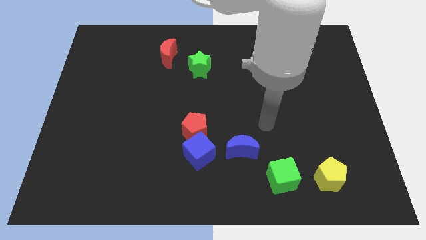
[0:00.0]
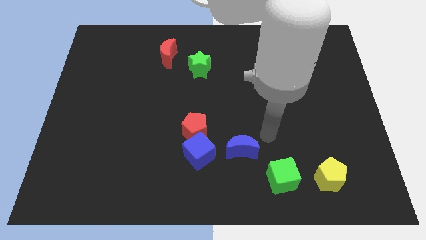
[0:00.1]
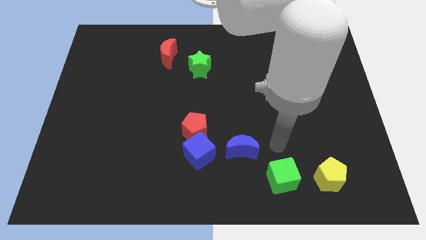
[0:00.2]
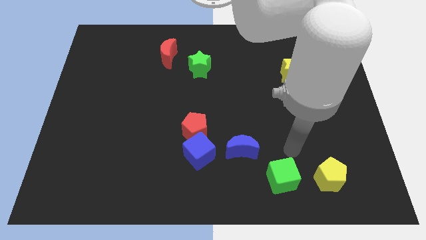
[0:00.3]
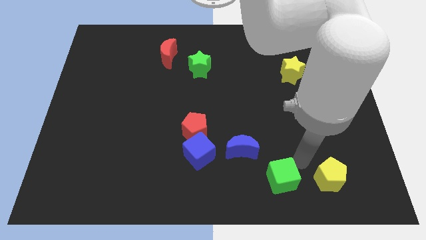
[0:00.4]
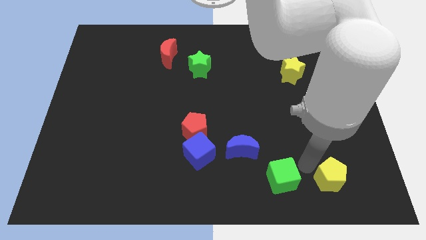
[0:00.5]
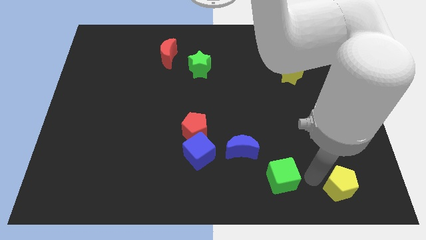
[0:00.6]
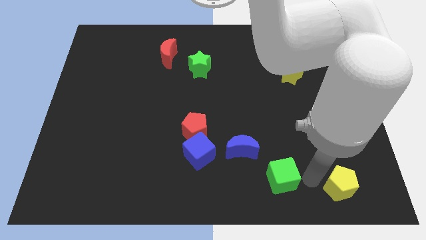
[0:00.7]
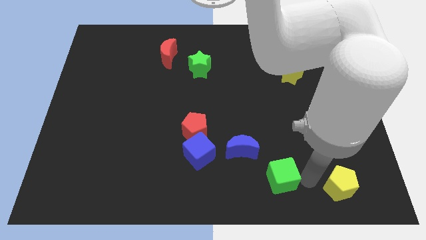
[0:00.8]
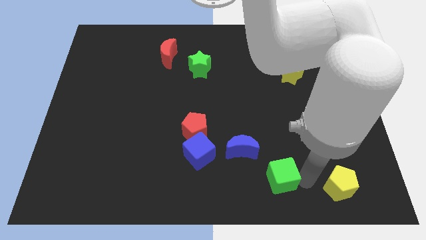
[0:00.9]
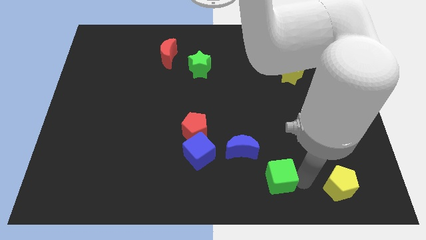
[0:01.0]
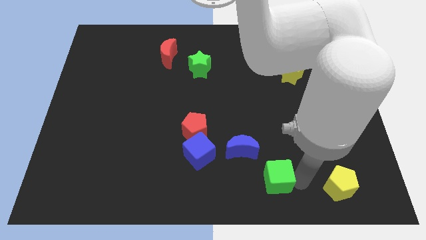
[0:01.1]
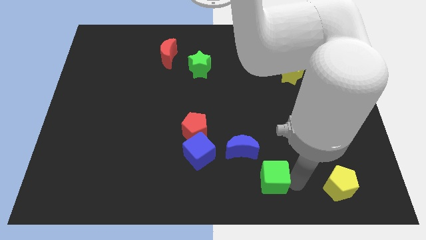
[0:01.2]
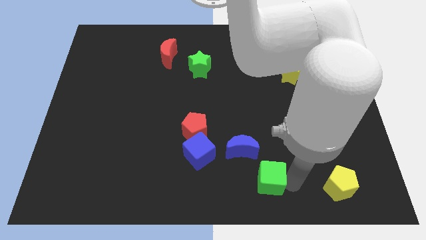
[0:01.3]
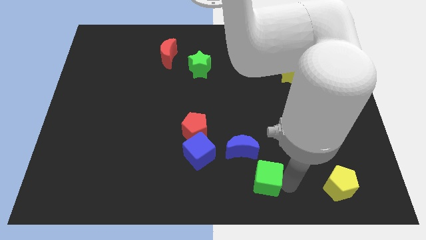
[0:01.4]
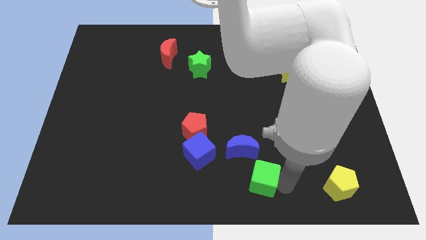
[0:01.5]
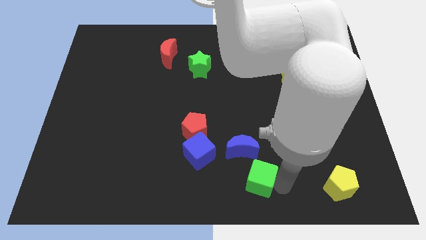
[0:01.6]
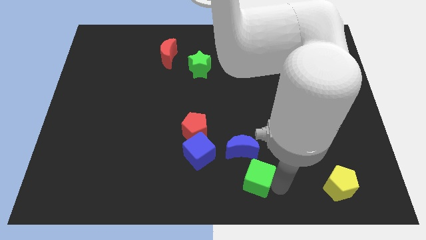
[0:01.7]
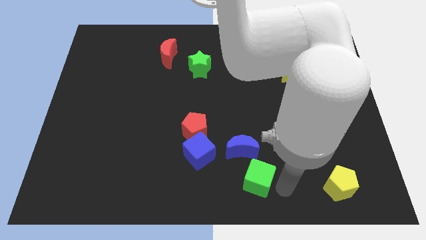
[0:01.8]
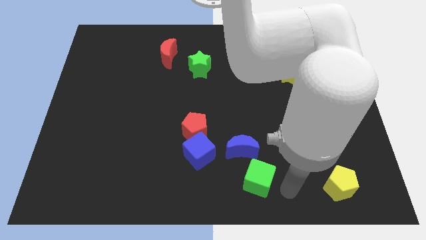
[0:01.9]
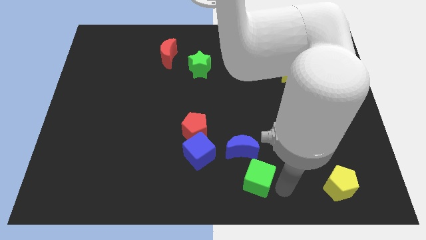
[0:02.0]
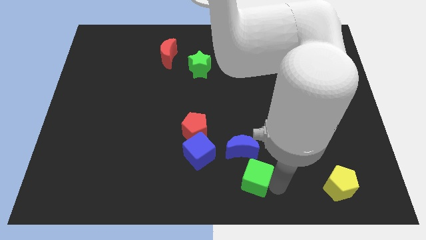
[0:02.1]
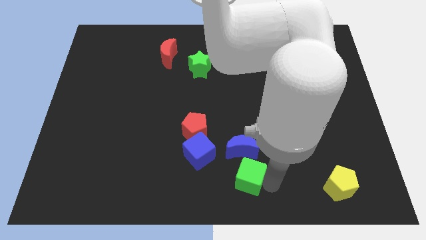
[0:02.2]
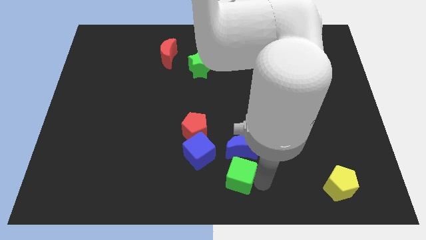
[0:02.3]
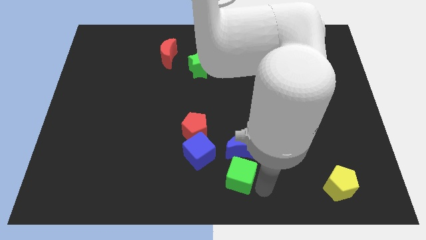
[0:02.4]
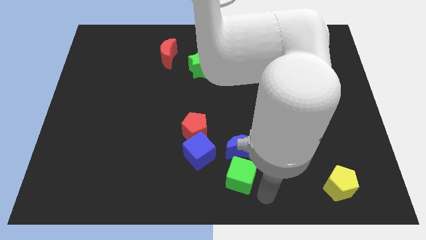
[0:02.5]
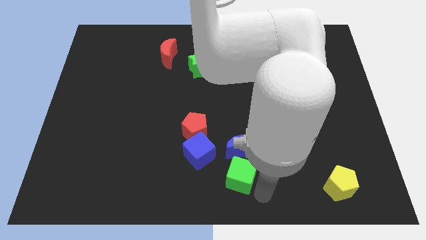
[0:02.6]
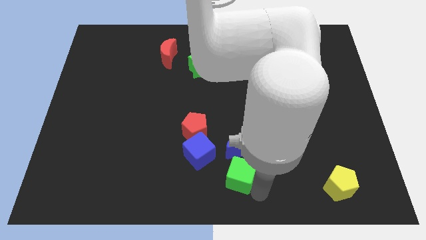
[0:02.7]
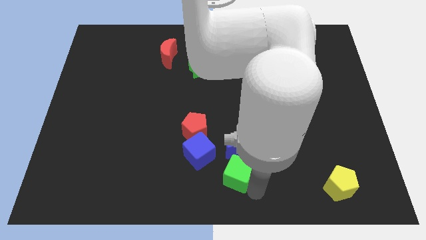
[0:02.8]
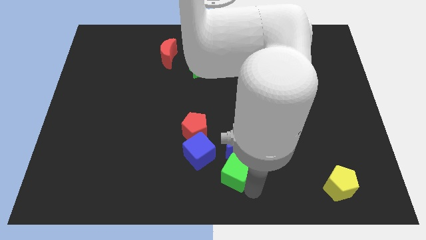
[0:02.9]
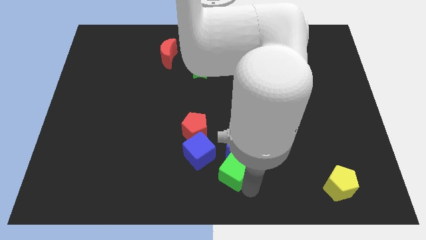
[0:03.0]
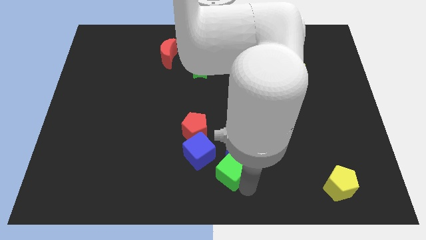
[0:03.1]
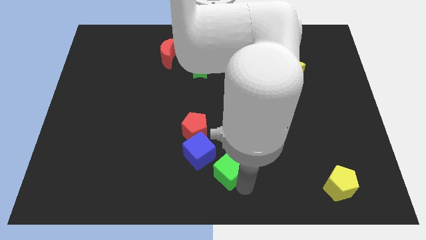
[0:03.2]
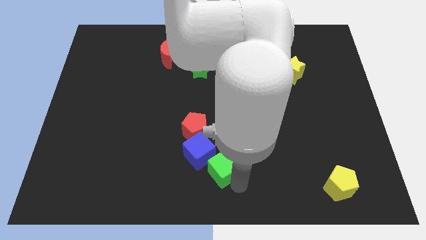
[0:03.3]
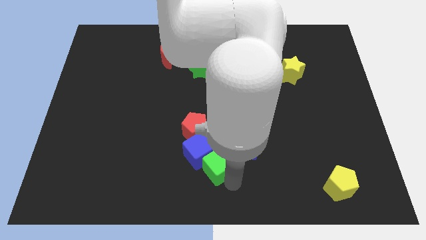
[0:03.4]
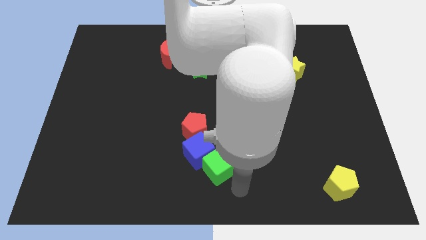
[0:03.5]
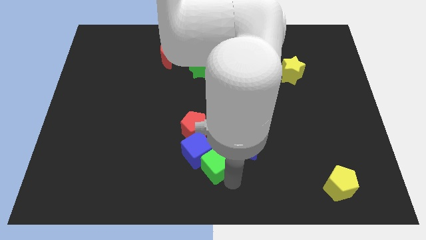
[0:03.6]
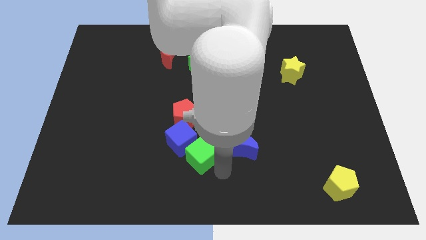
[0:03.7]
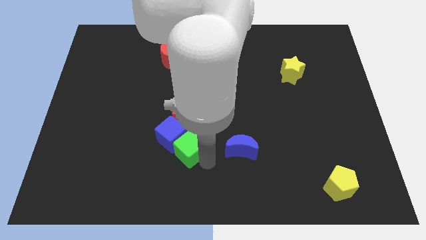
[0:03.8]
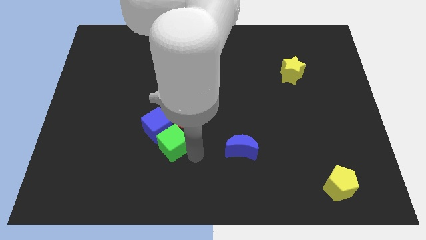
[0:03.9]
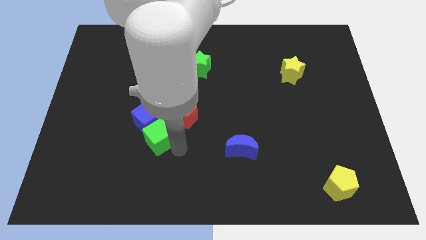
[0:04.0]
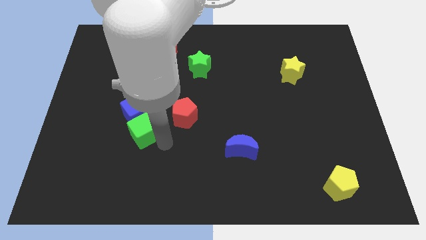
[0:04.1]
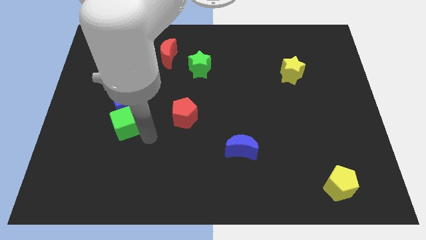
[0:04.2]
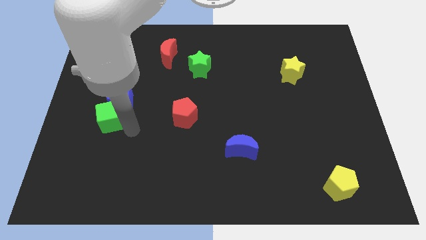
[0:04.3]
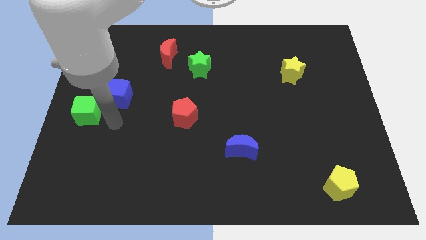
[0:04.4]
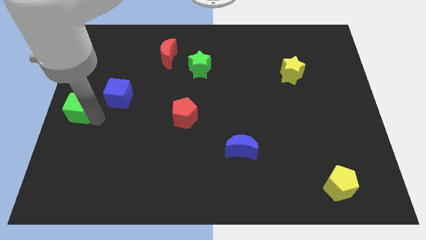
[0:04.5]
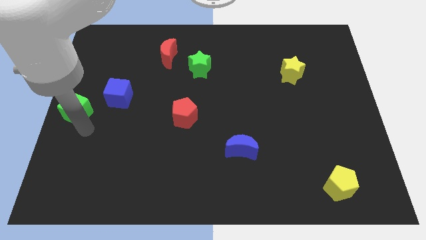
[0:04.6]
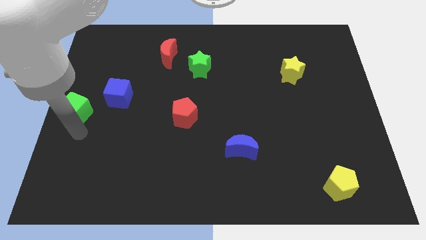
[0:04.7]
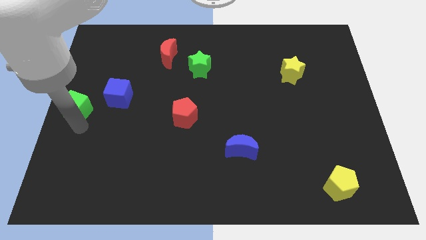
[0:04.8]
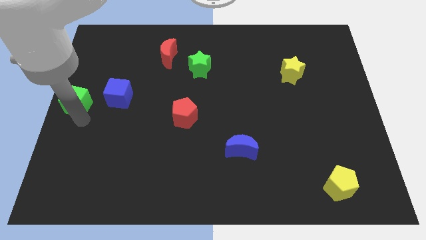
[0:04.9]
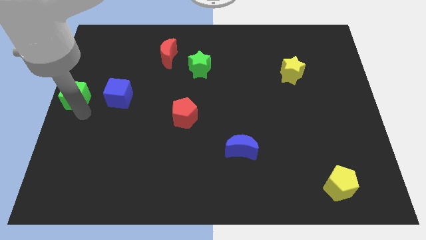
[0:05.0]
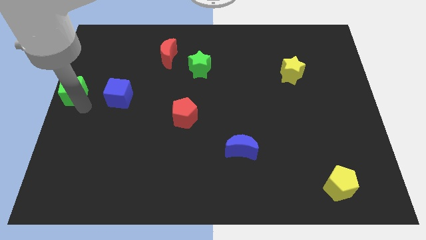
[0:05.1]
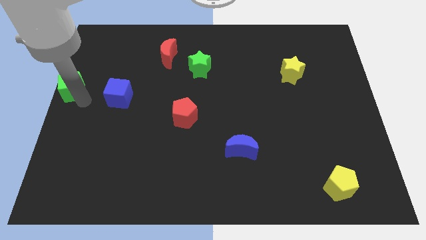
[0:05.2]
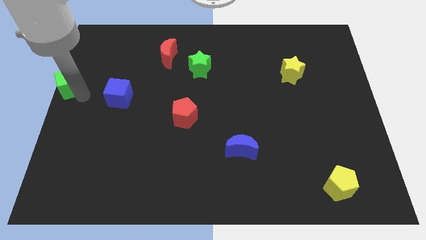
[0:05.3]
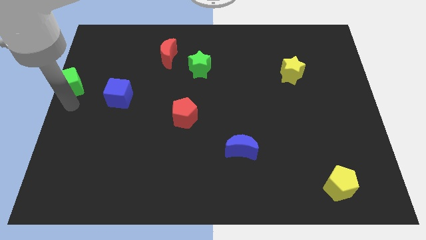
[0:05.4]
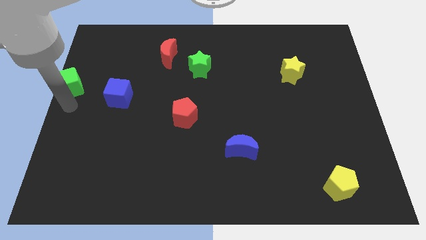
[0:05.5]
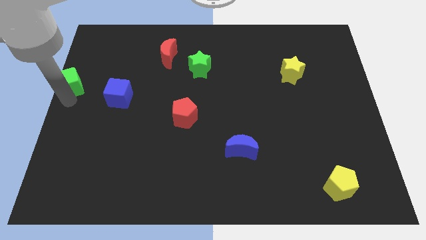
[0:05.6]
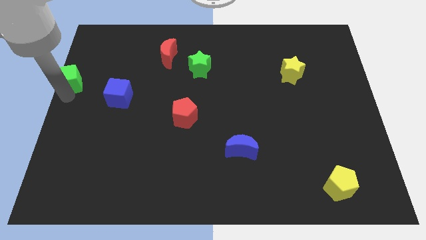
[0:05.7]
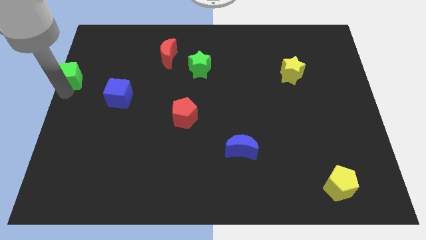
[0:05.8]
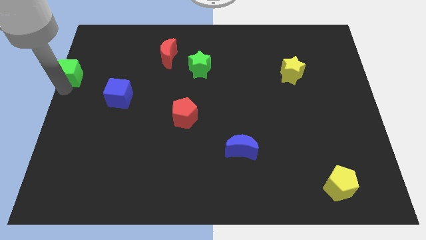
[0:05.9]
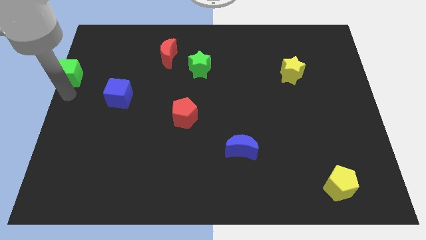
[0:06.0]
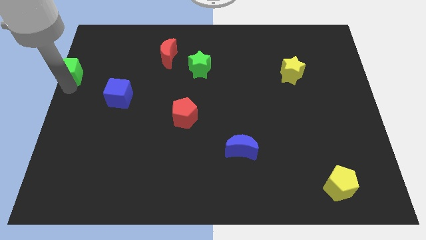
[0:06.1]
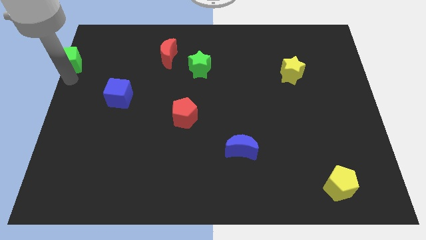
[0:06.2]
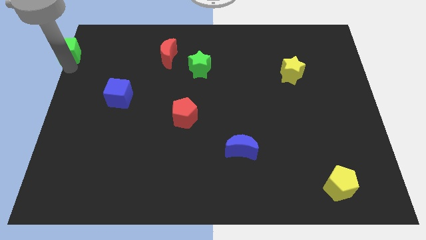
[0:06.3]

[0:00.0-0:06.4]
push the green cube to the top left

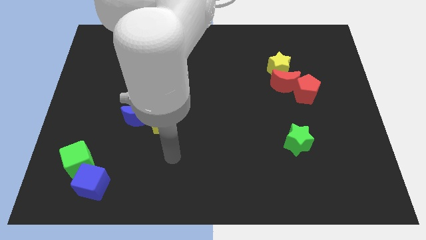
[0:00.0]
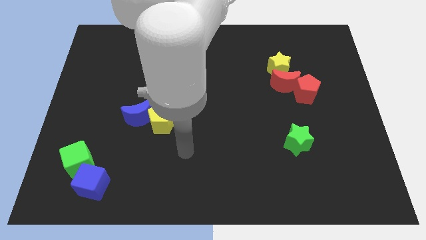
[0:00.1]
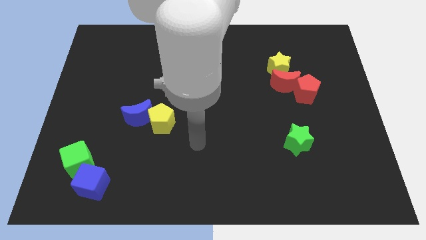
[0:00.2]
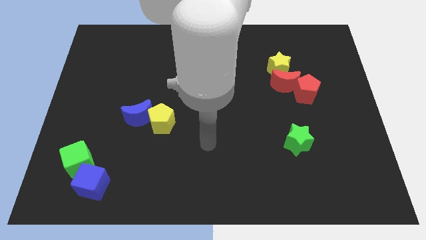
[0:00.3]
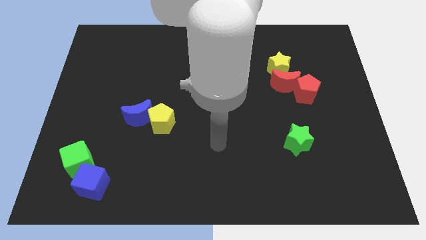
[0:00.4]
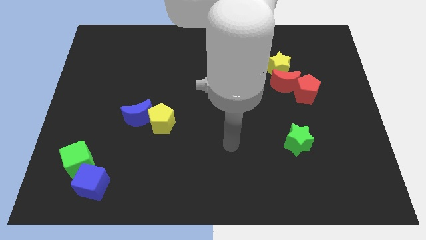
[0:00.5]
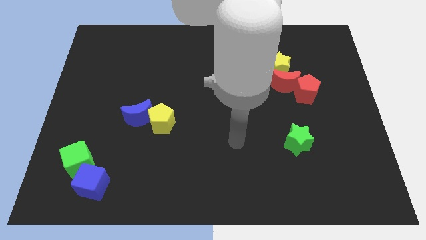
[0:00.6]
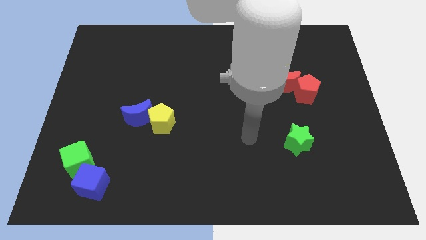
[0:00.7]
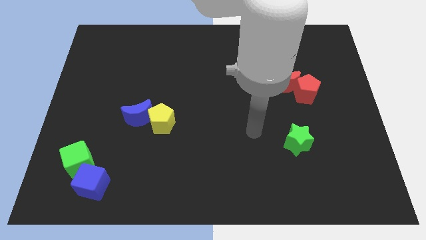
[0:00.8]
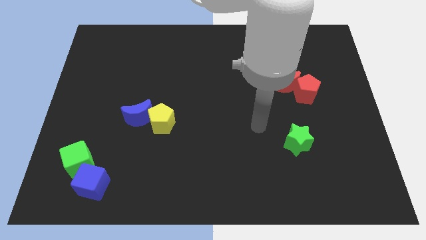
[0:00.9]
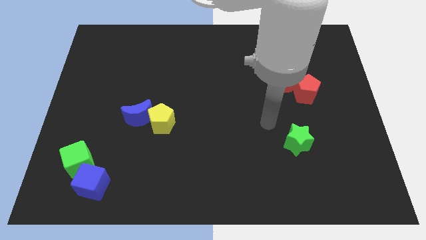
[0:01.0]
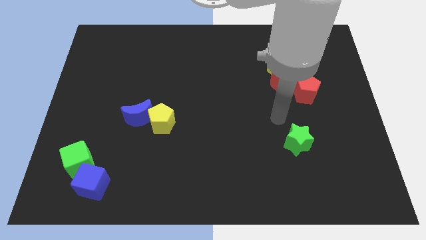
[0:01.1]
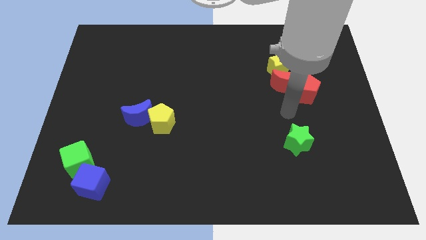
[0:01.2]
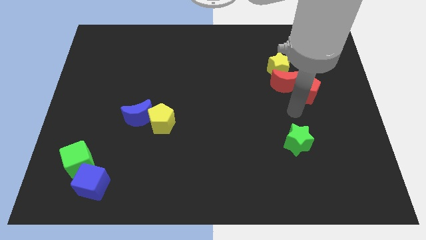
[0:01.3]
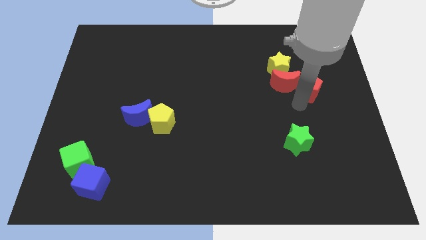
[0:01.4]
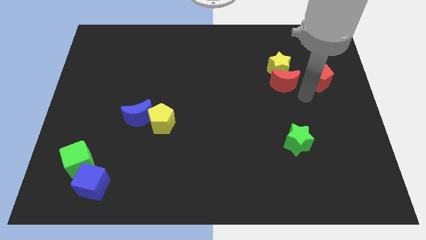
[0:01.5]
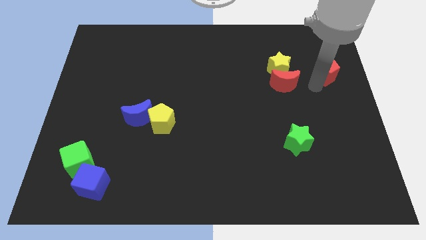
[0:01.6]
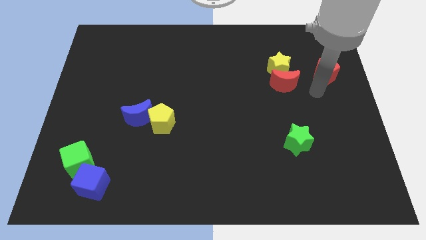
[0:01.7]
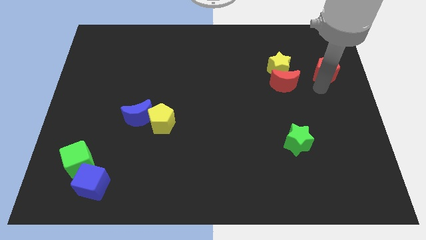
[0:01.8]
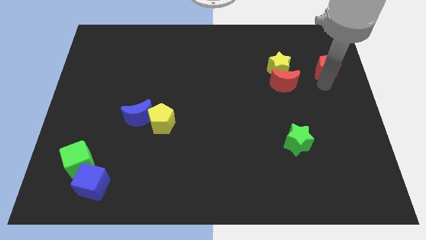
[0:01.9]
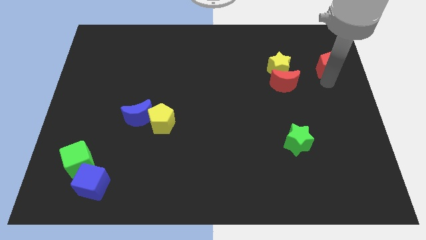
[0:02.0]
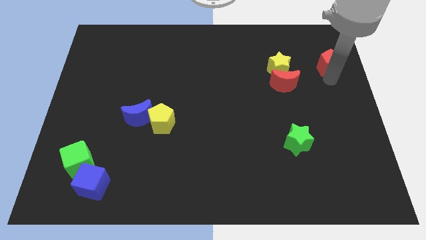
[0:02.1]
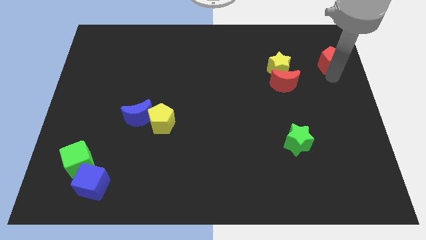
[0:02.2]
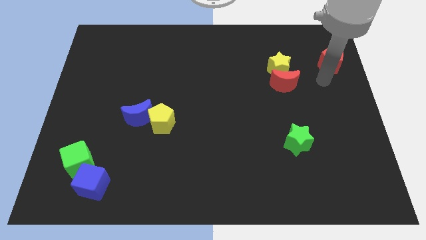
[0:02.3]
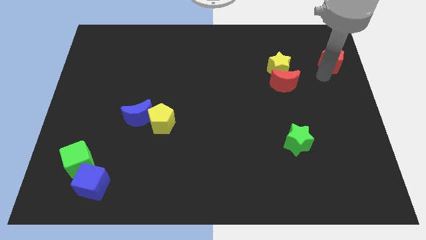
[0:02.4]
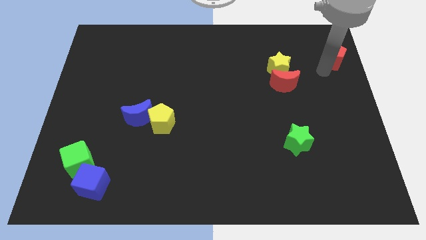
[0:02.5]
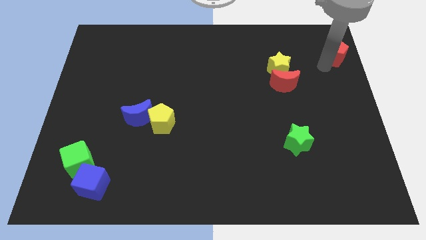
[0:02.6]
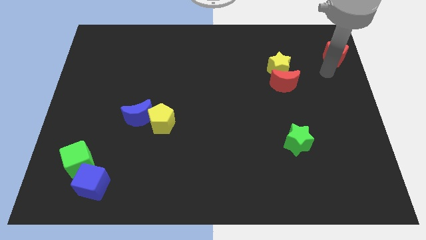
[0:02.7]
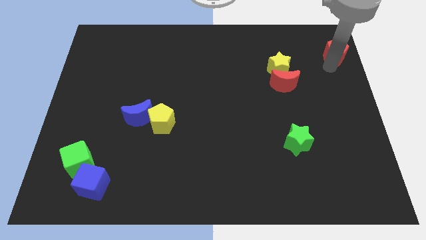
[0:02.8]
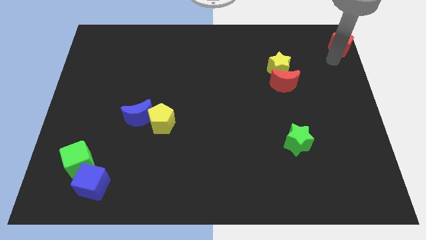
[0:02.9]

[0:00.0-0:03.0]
move the red pentagon to the top right corner
